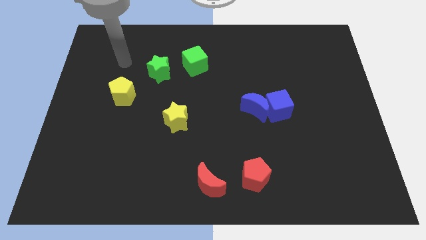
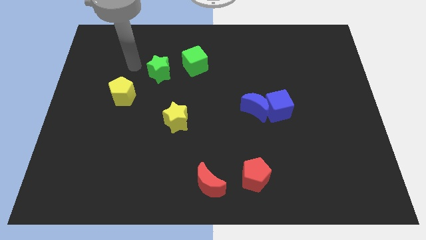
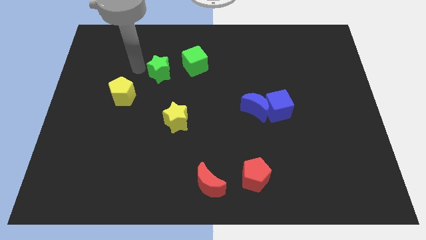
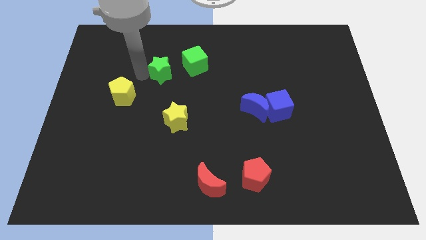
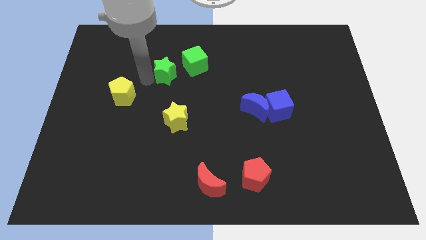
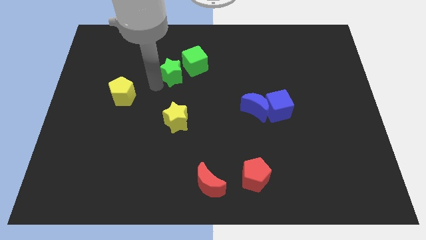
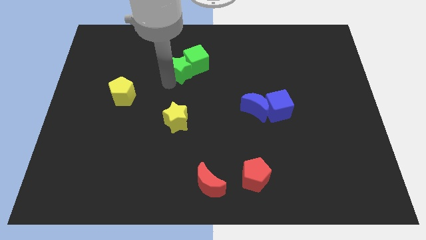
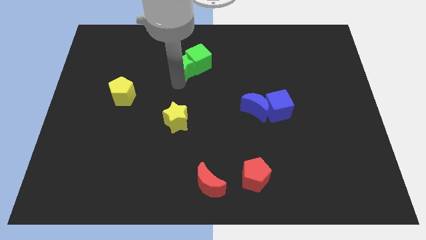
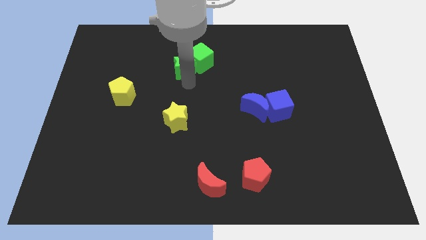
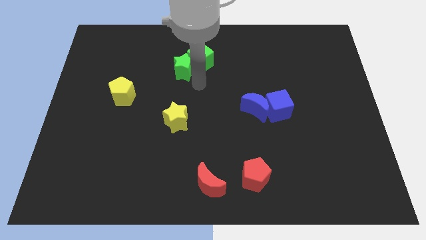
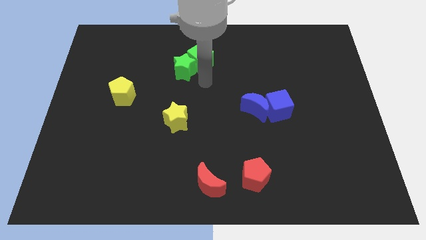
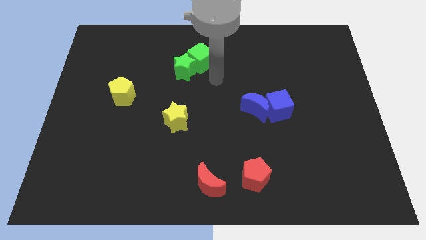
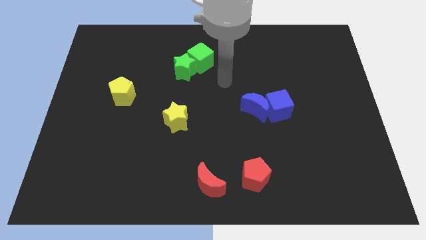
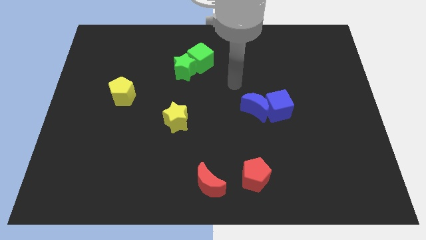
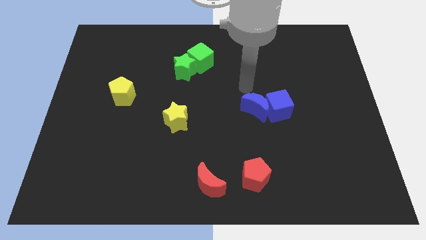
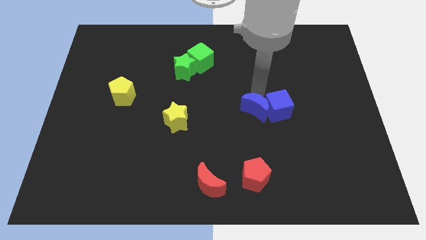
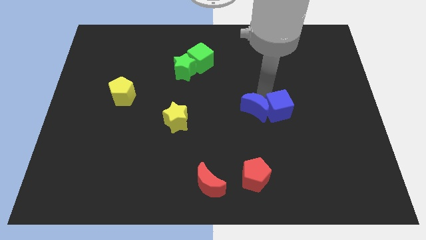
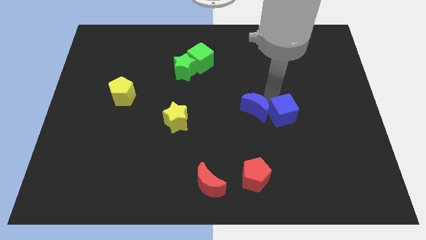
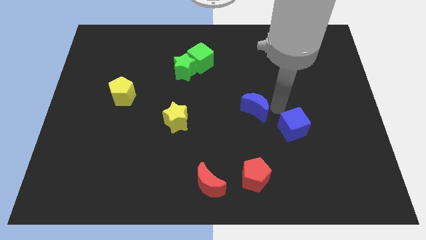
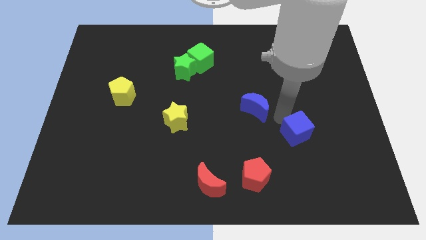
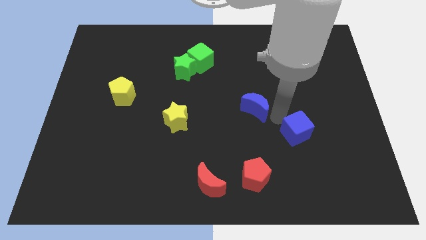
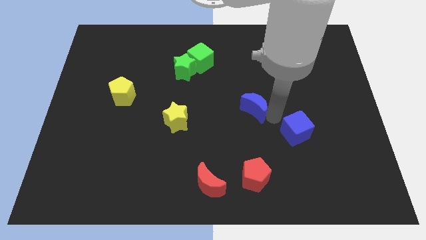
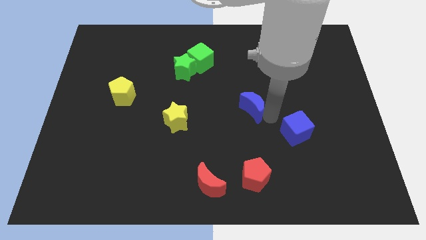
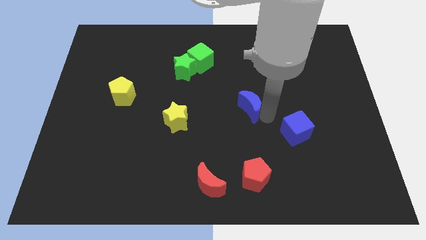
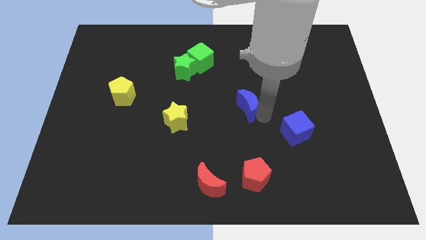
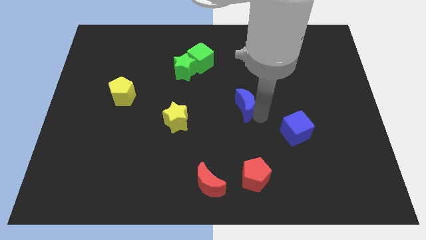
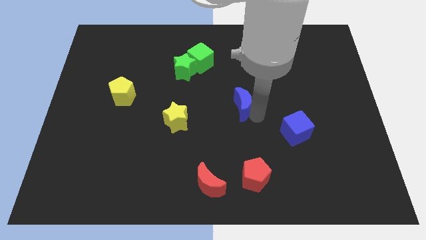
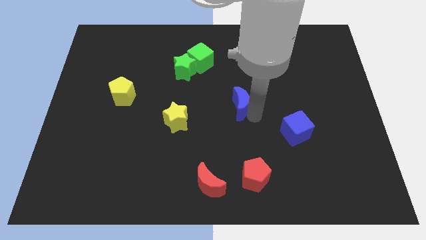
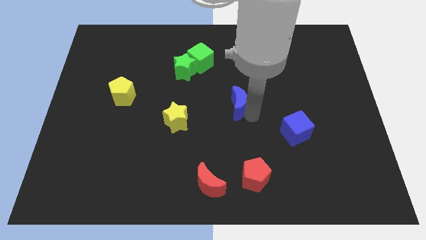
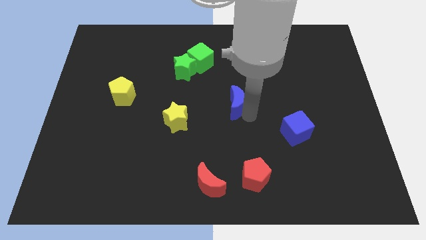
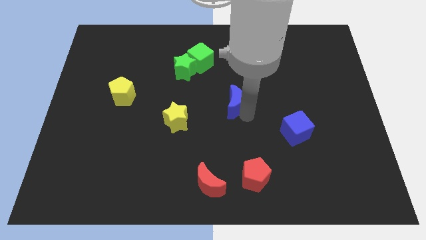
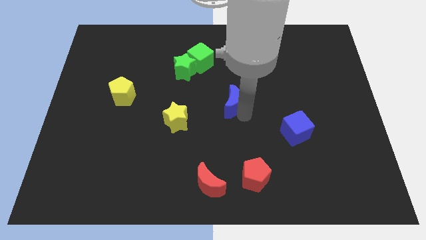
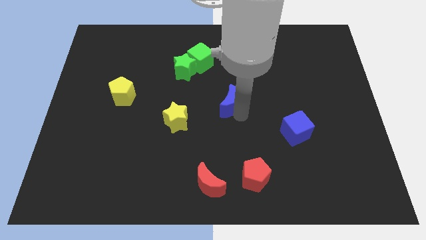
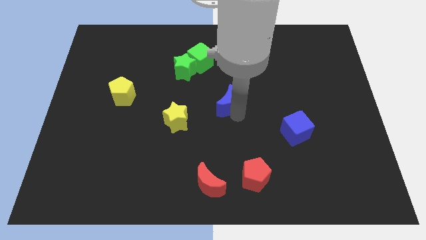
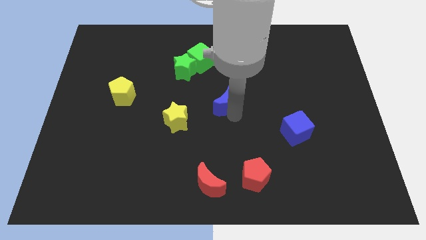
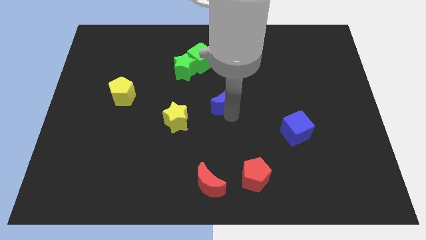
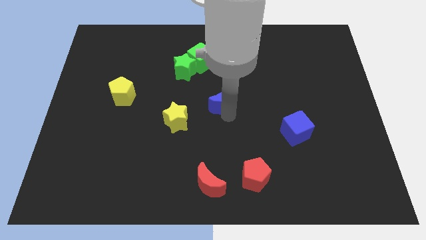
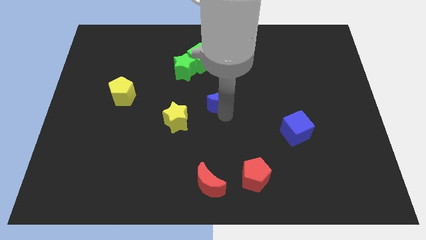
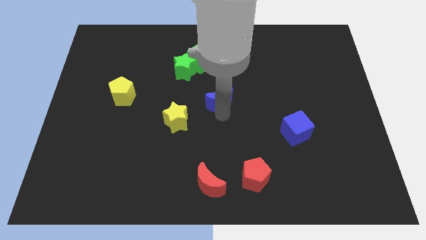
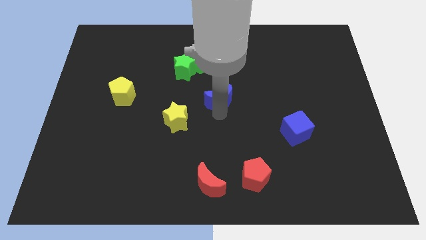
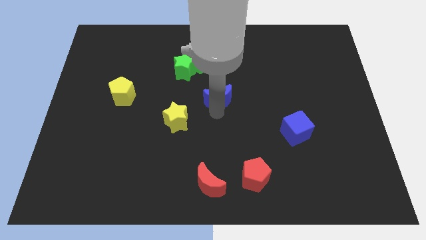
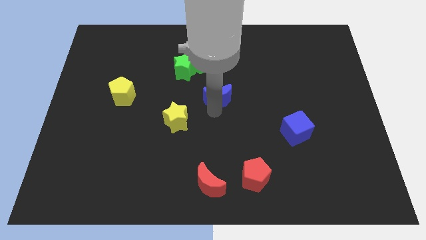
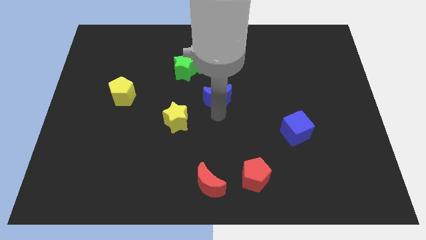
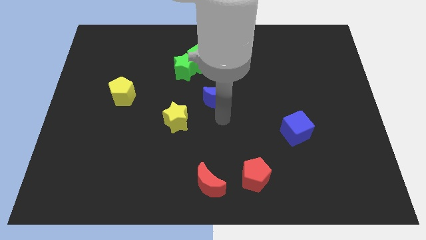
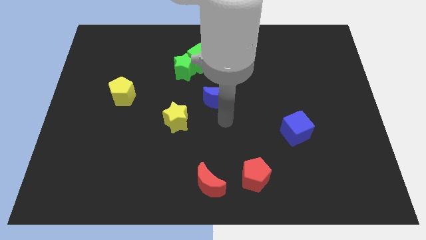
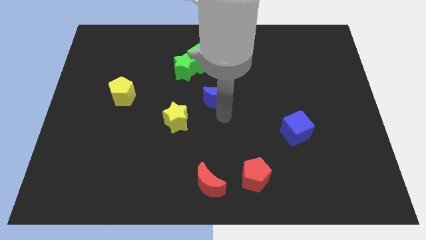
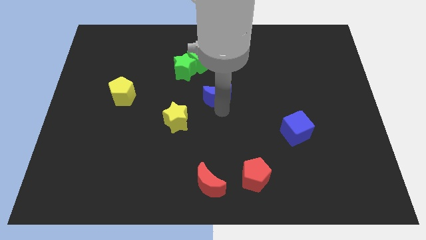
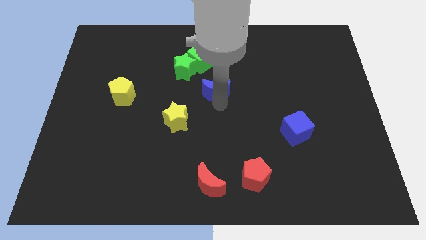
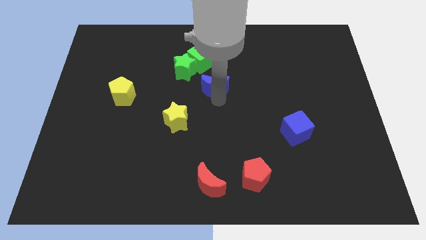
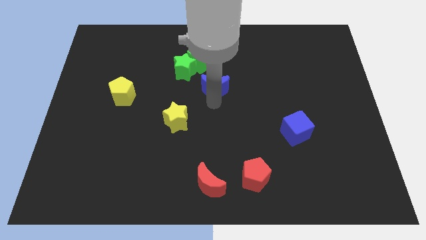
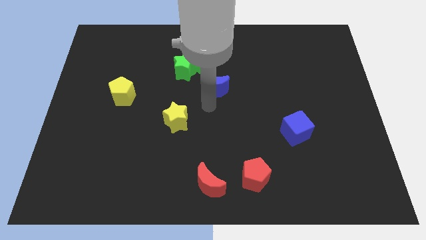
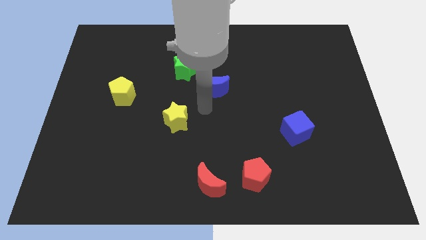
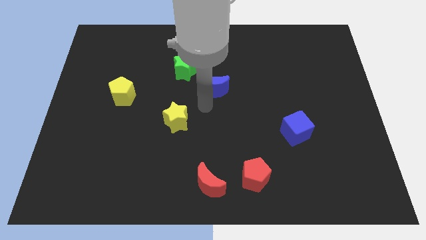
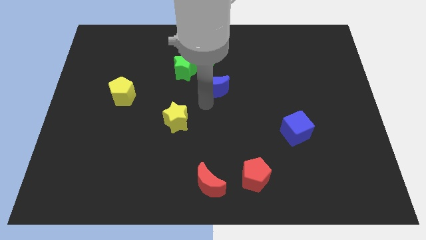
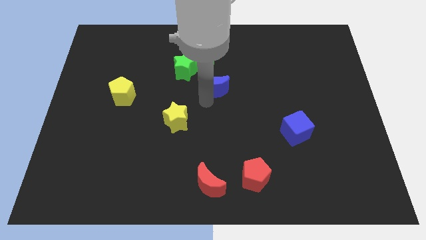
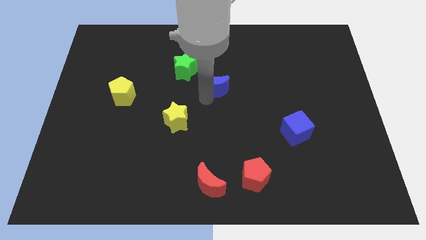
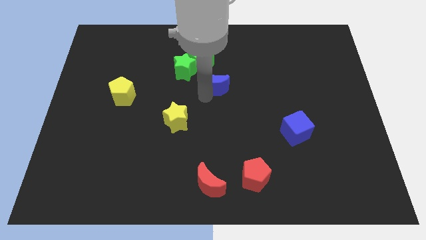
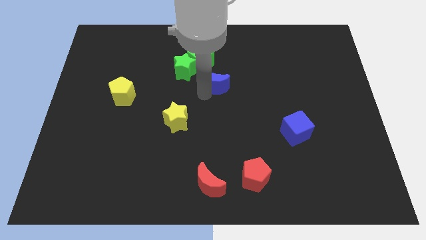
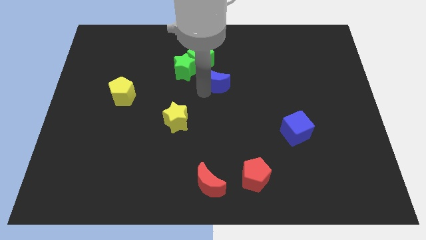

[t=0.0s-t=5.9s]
put the blue moon to the right side of the green star

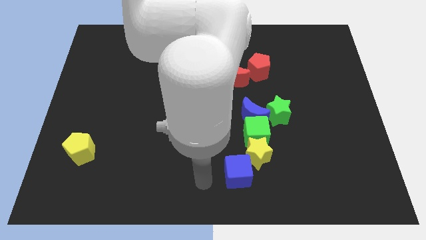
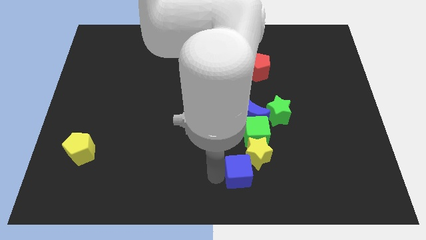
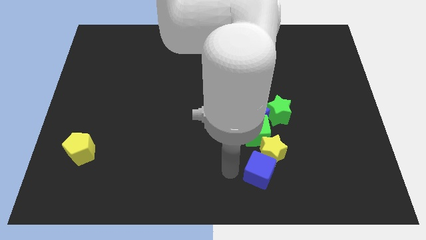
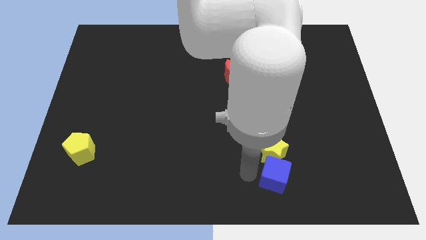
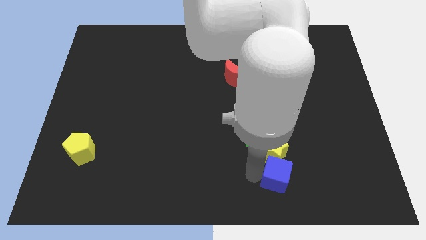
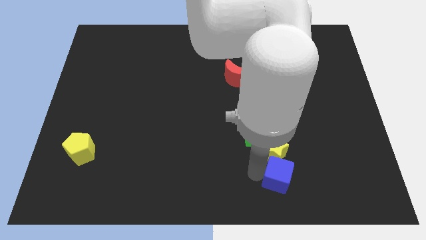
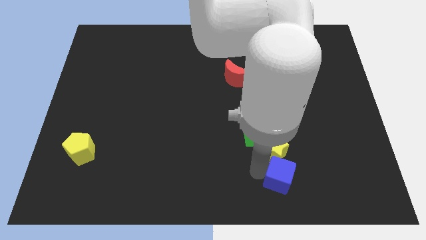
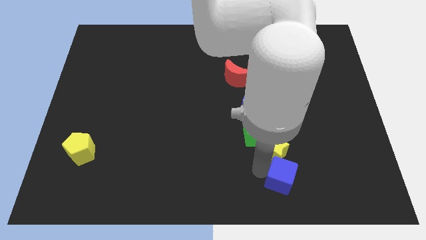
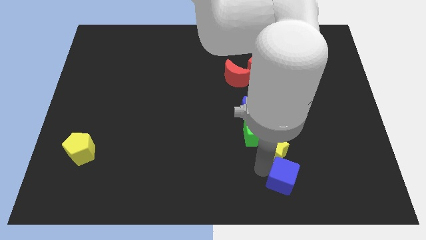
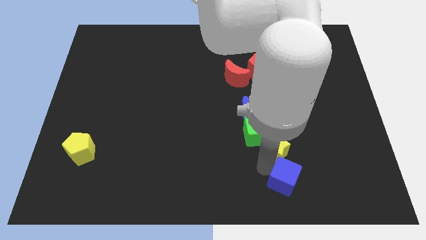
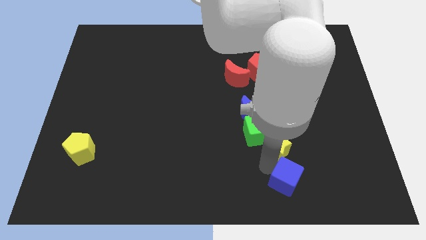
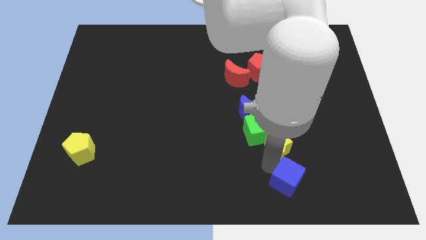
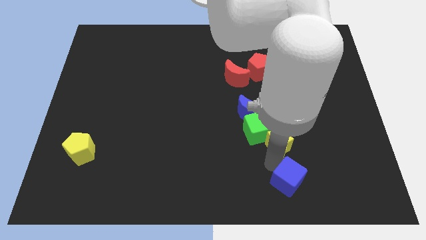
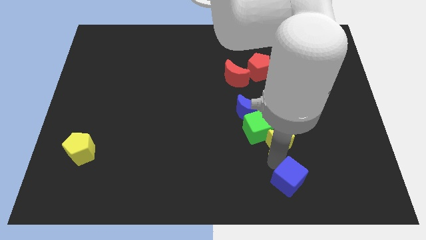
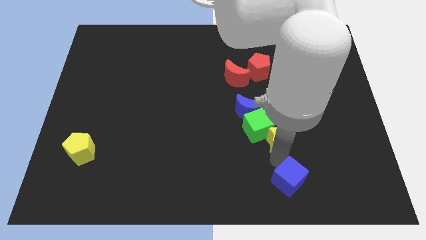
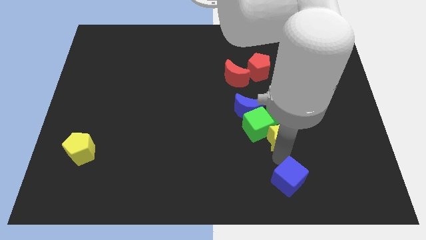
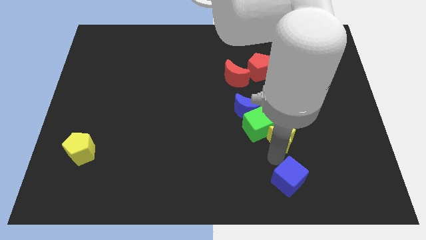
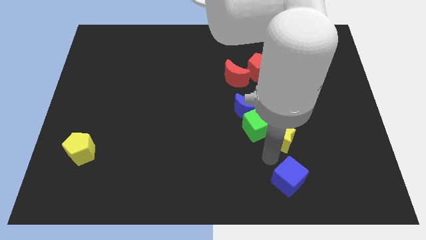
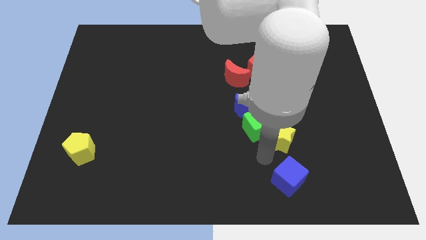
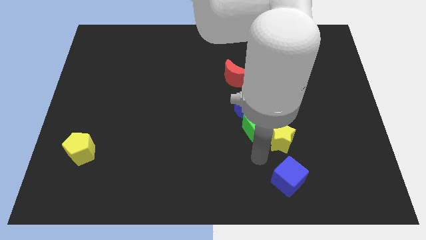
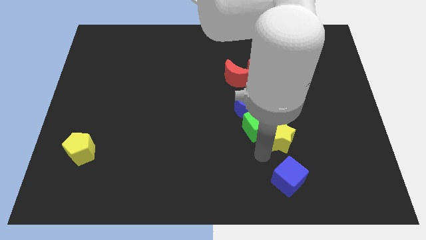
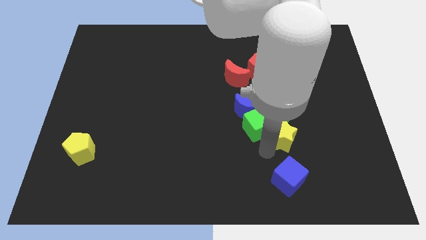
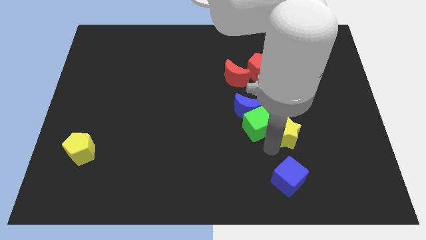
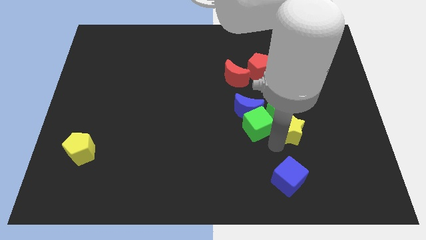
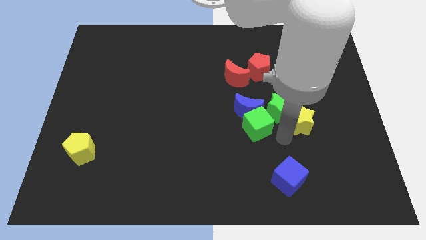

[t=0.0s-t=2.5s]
push the yellow star just right of the green star
